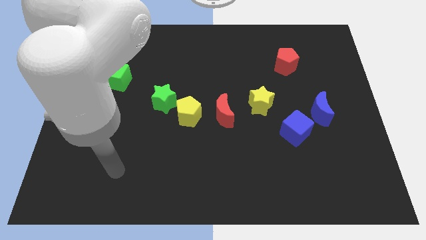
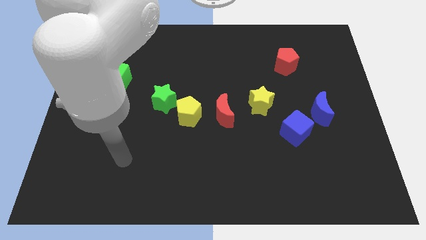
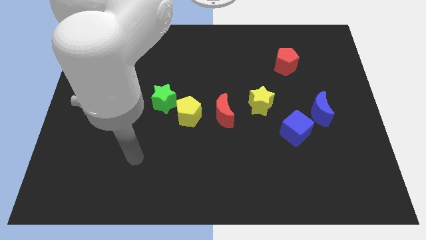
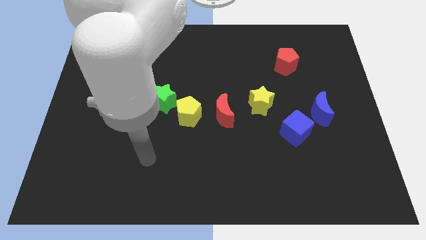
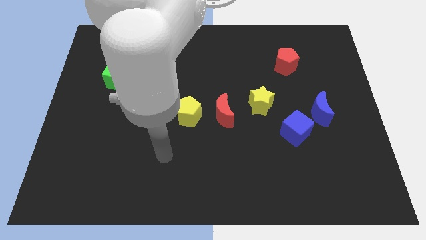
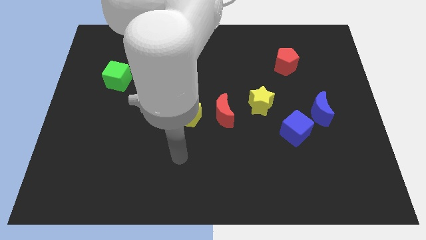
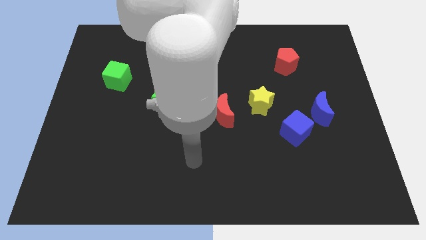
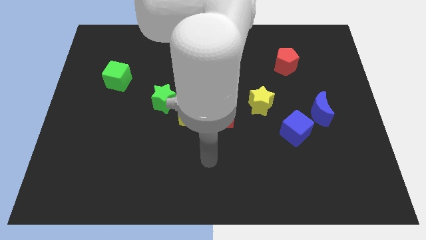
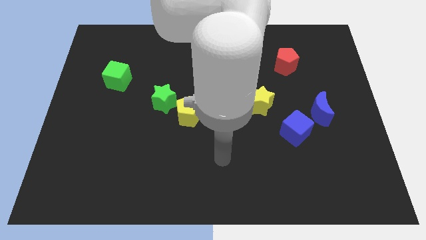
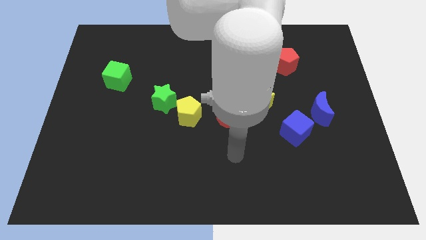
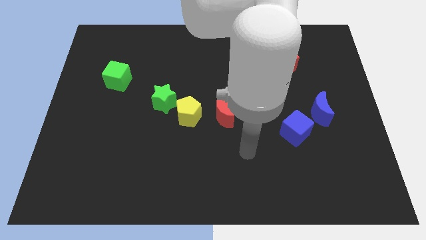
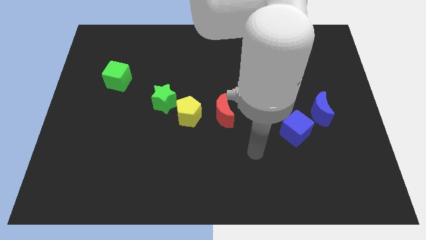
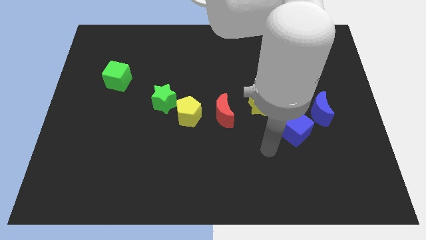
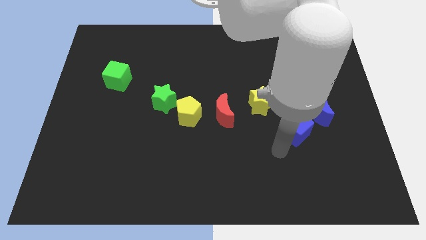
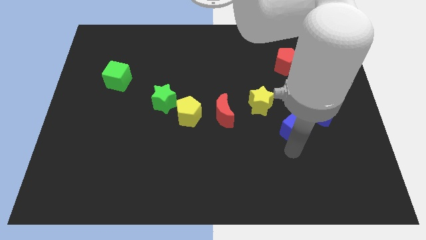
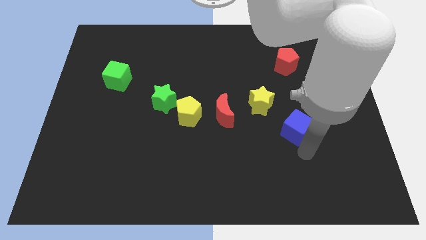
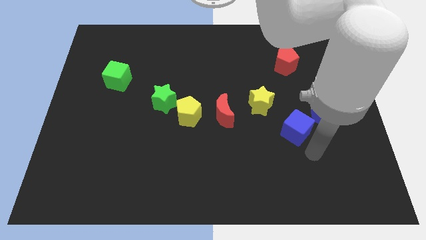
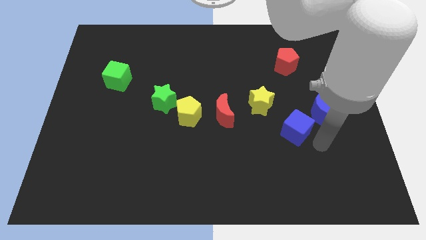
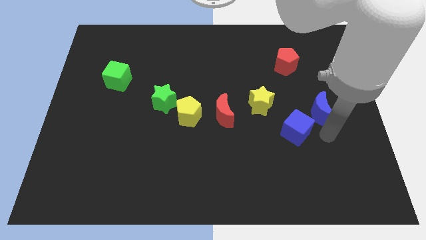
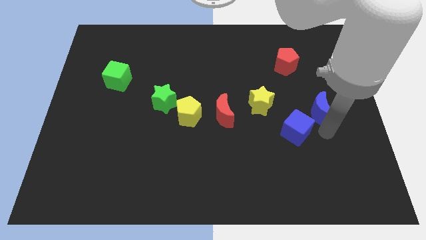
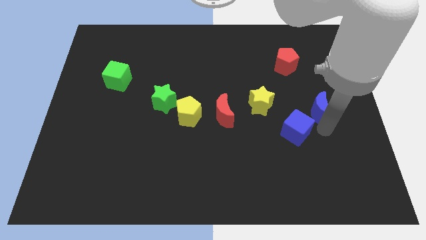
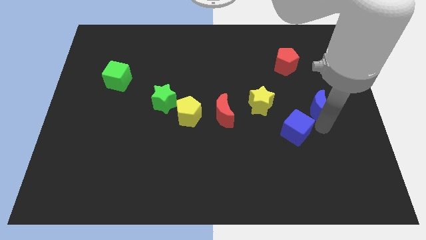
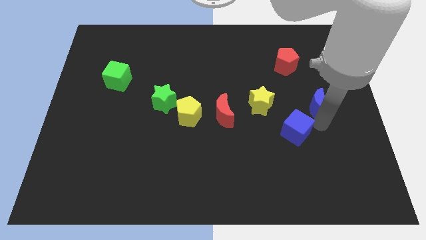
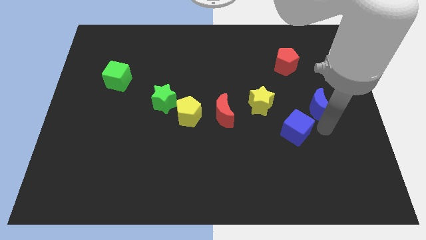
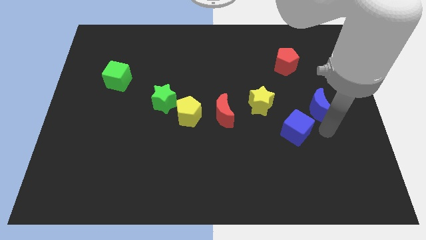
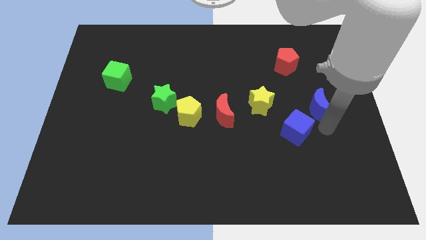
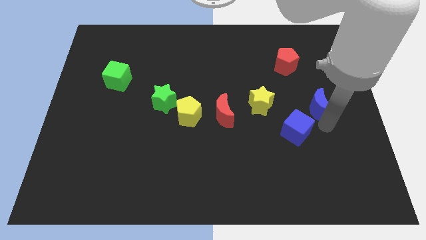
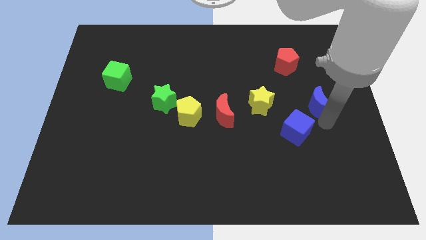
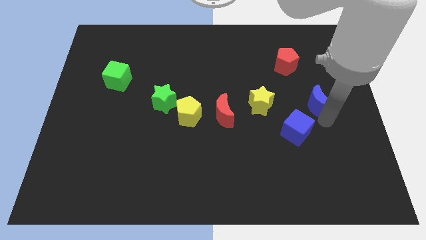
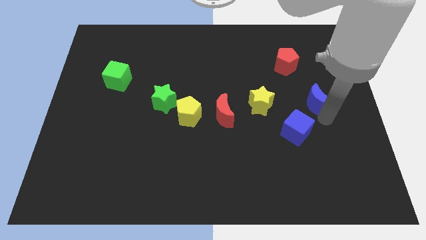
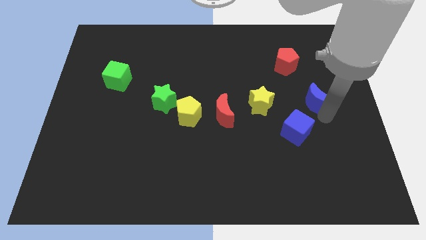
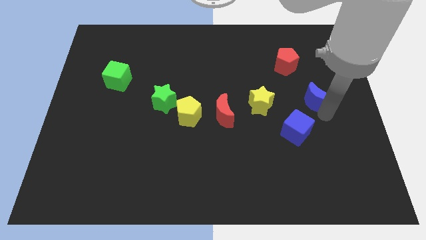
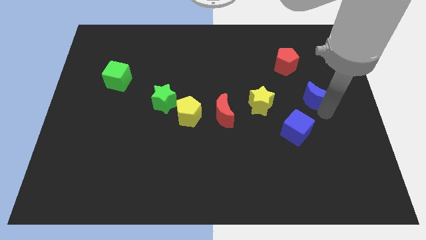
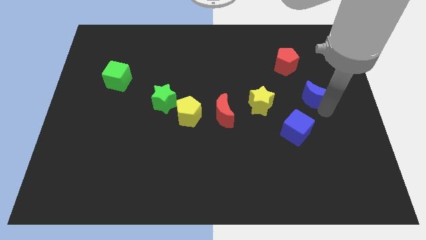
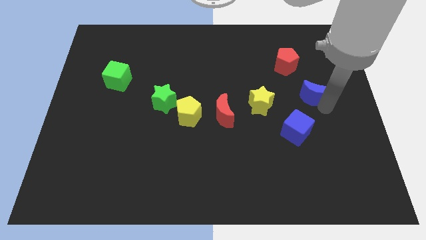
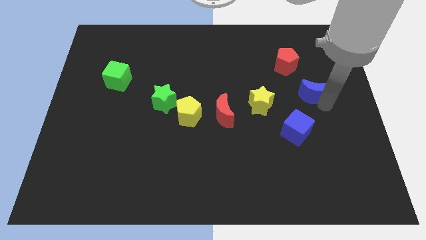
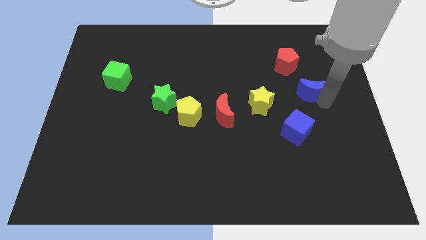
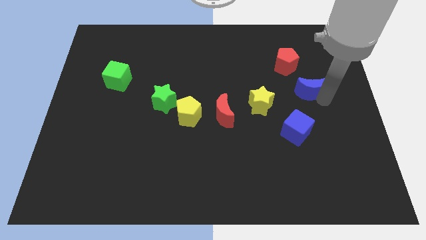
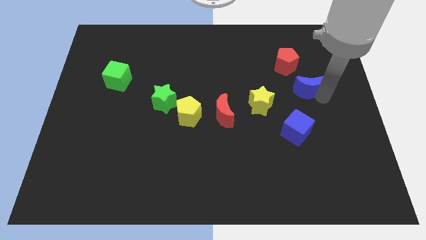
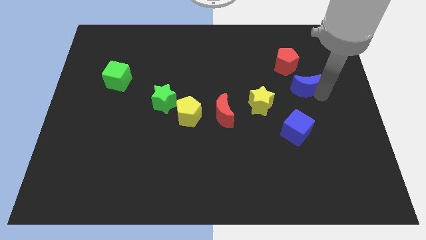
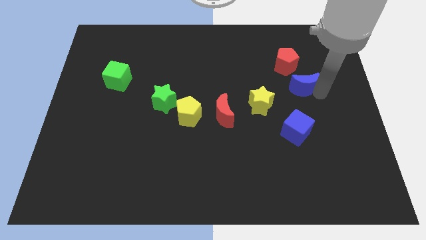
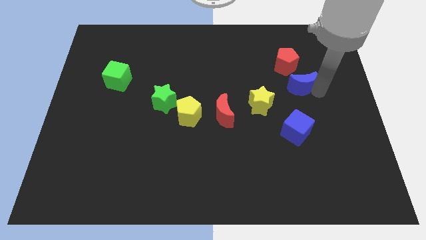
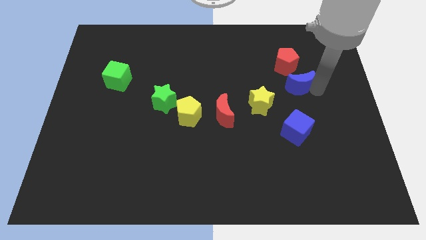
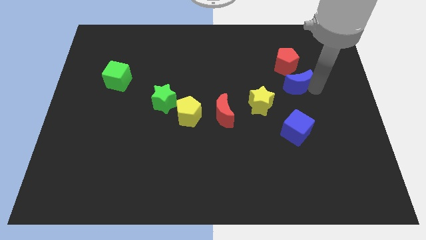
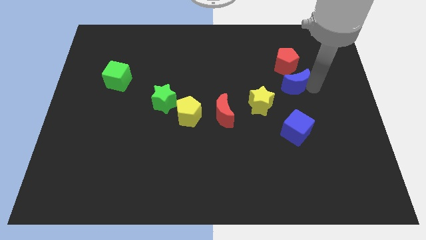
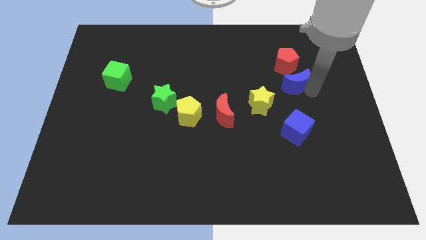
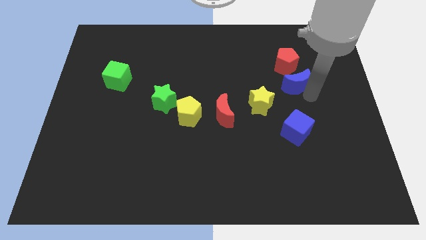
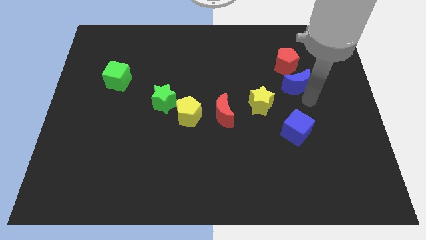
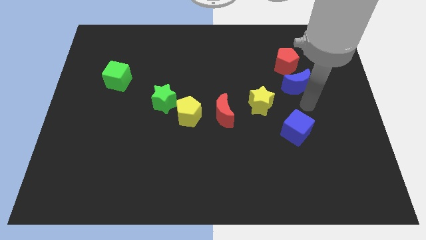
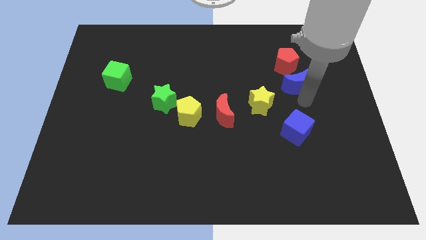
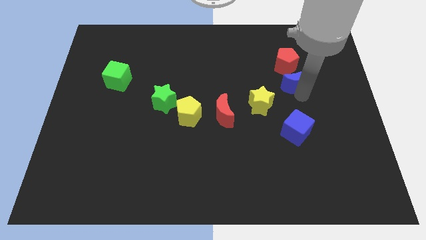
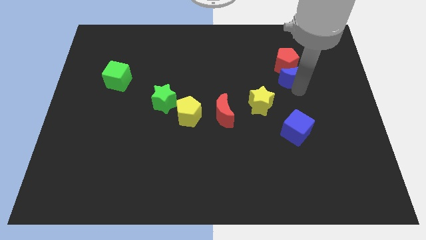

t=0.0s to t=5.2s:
slide the blue moon next to the red pentagon

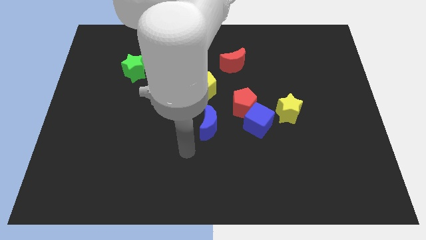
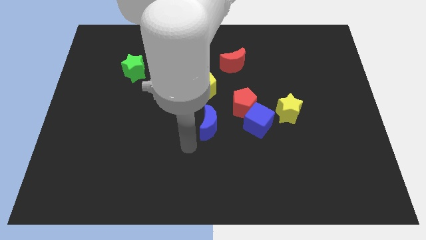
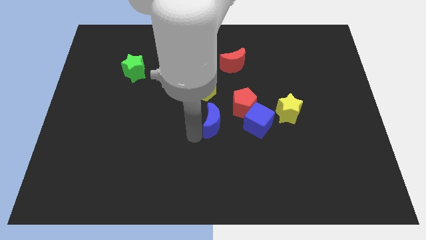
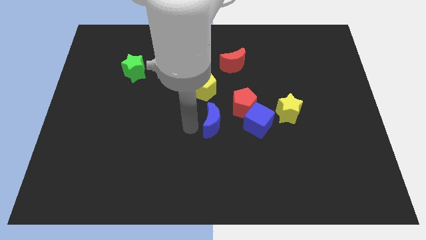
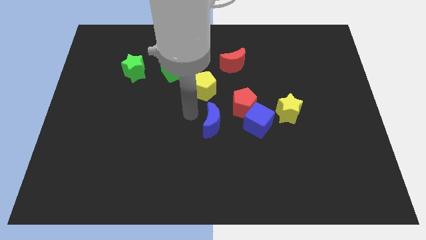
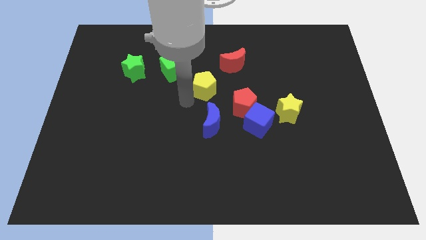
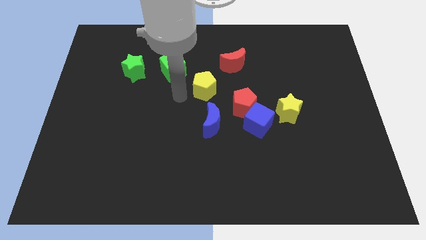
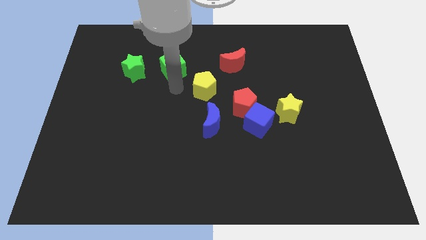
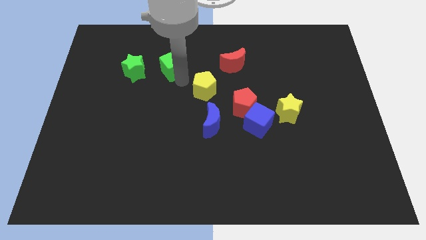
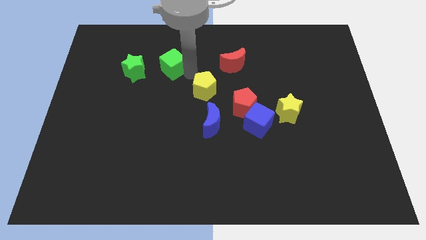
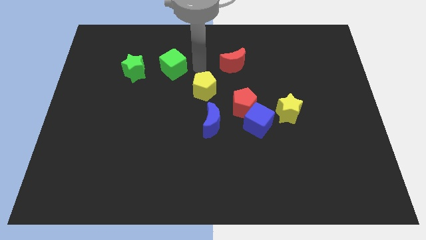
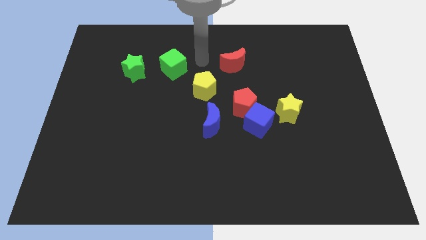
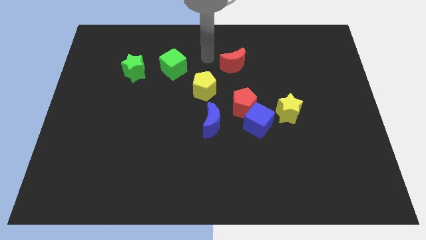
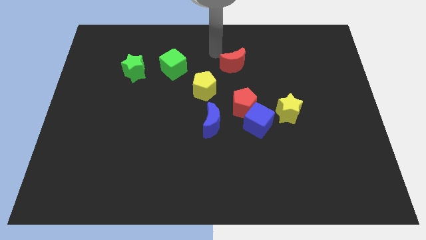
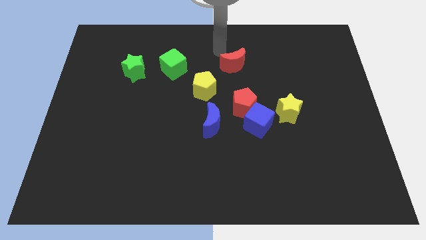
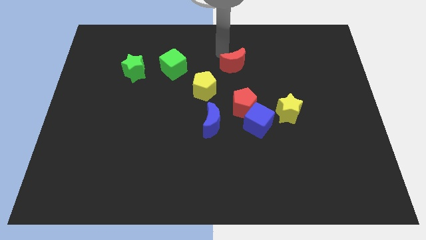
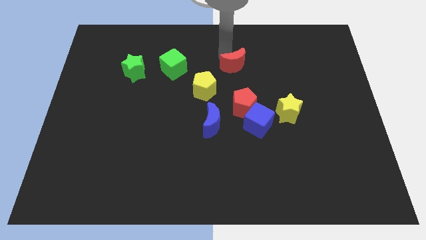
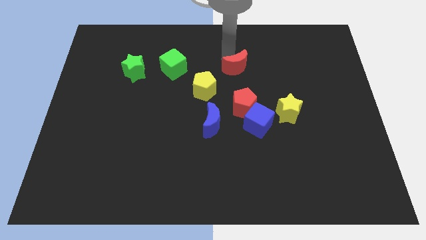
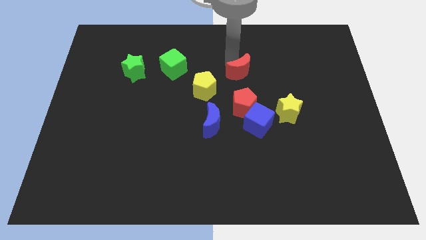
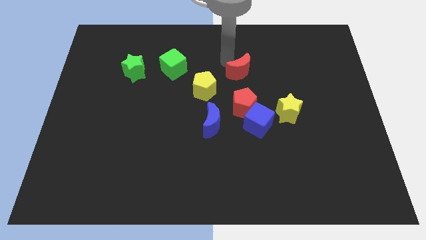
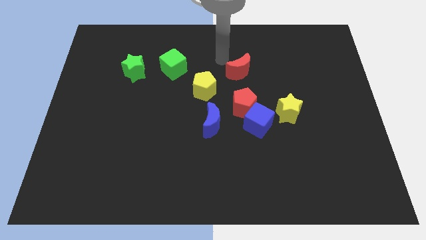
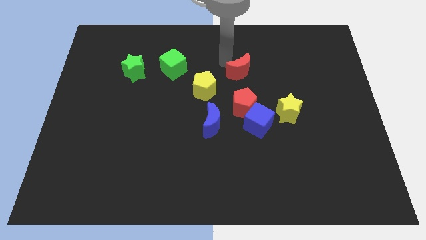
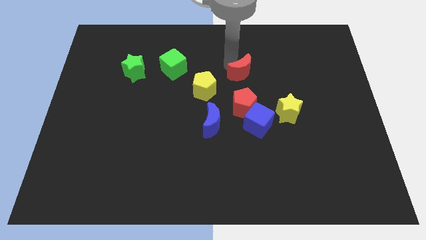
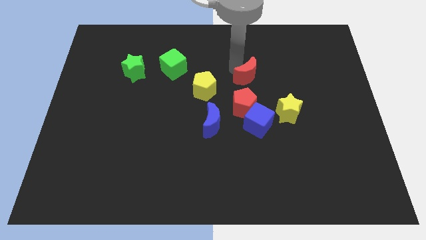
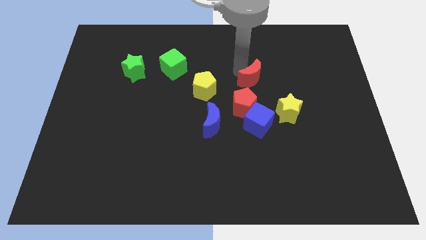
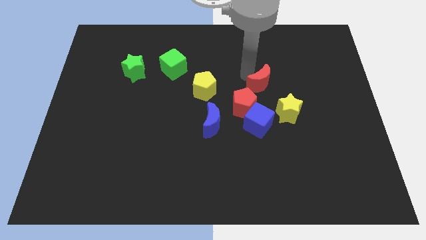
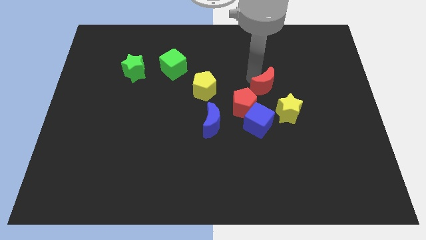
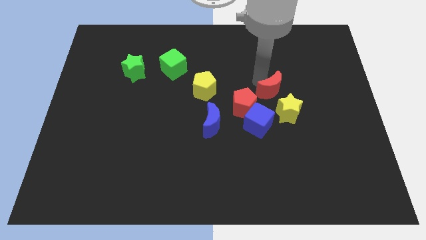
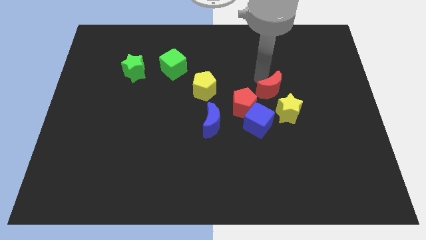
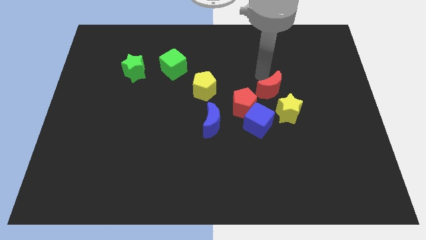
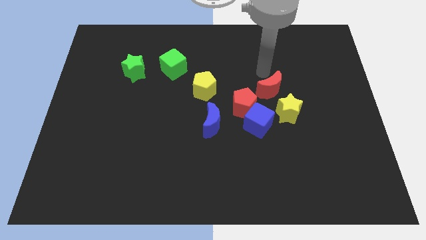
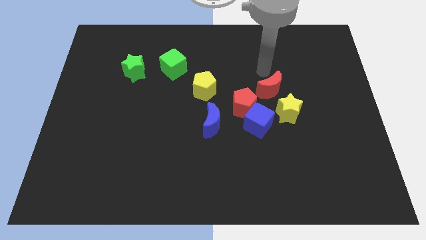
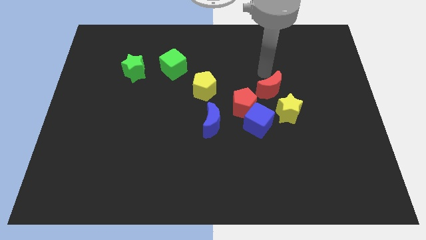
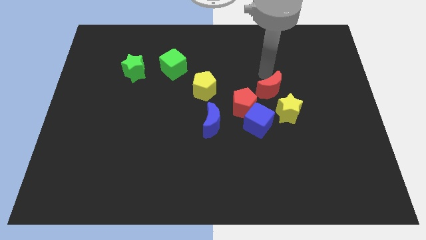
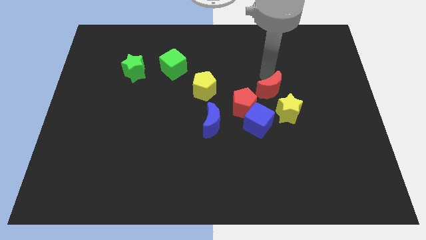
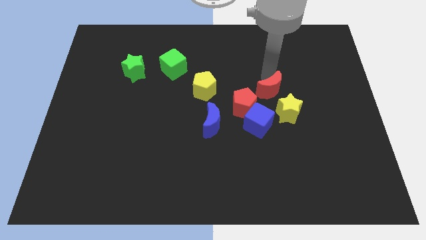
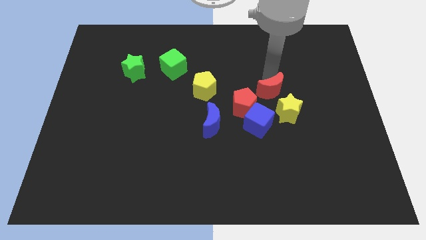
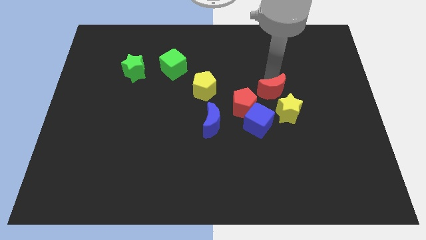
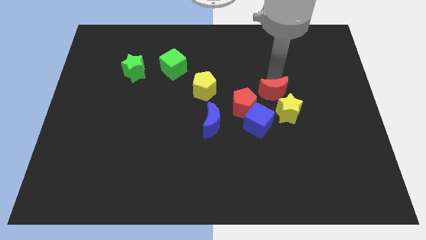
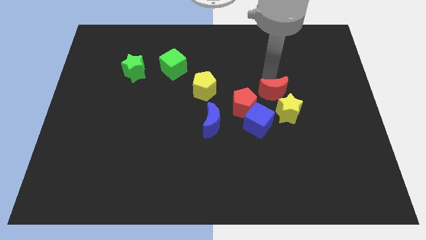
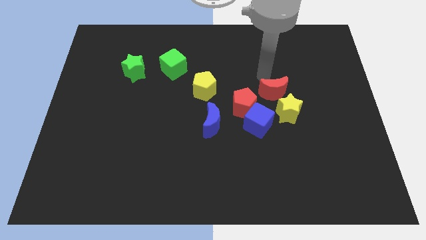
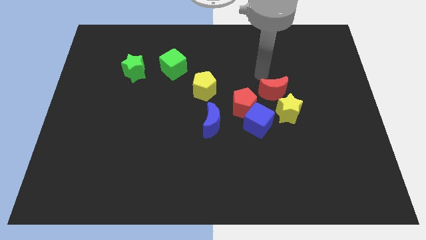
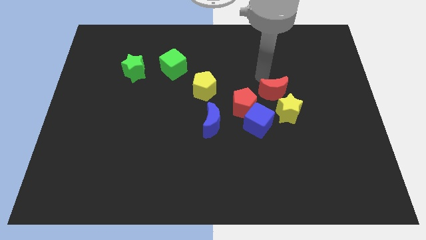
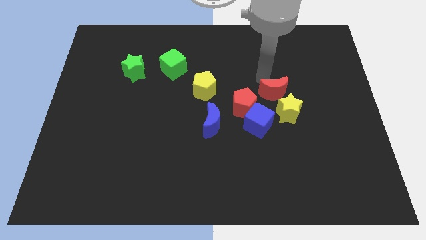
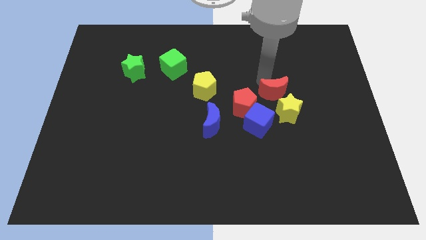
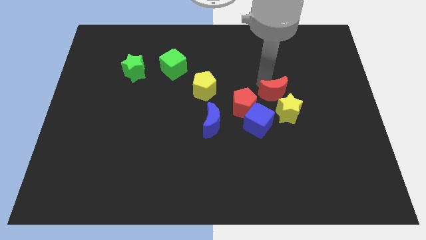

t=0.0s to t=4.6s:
put the red moon next to the yellow star
